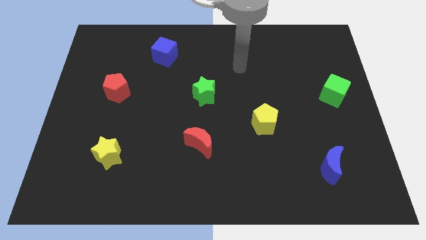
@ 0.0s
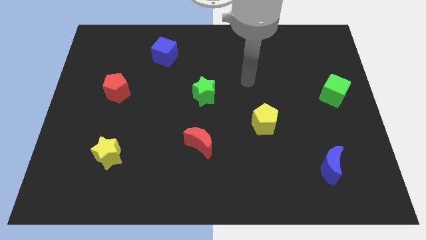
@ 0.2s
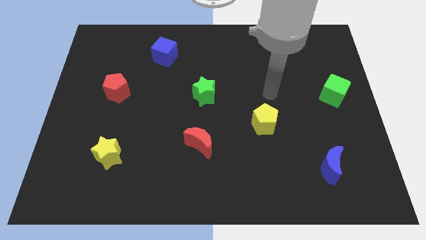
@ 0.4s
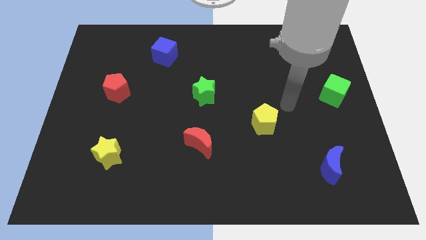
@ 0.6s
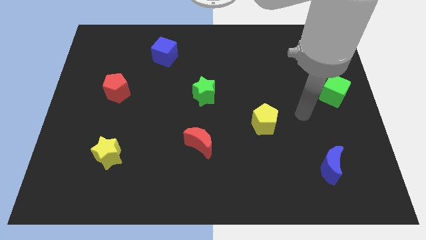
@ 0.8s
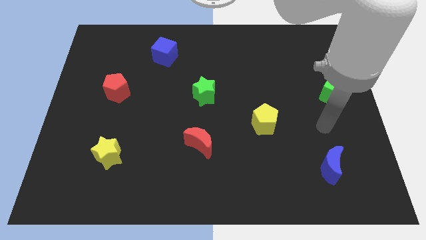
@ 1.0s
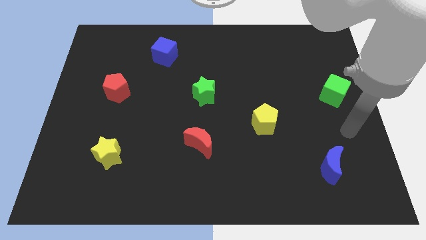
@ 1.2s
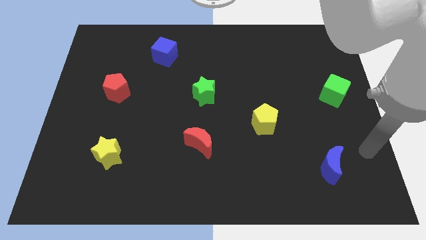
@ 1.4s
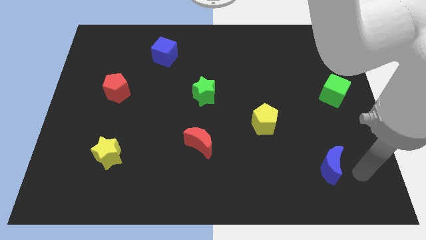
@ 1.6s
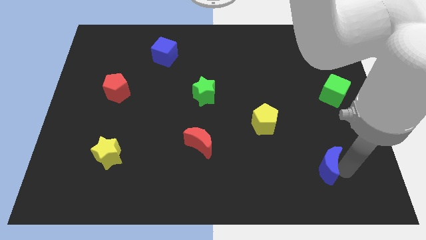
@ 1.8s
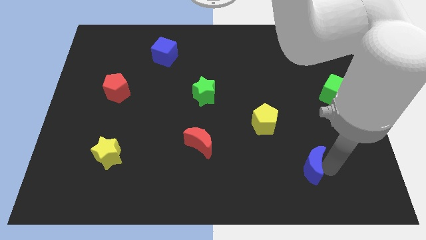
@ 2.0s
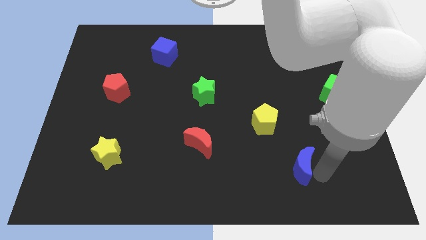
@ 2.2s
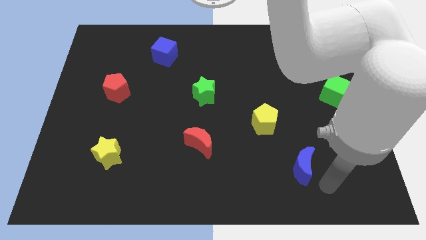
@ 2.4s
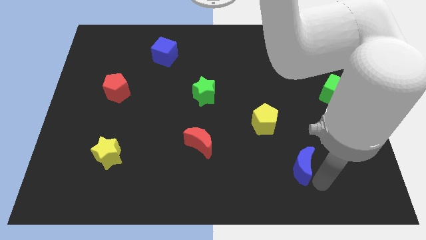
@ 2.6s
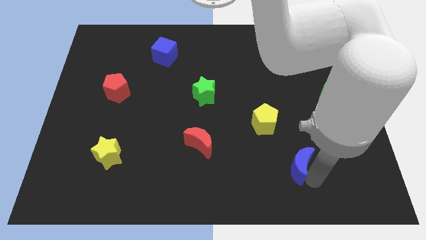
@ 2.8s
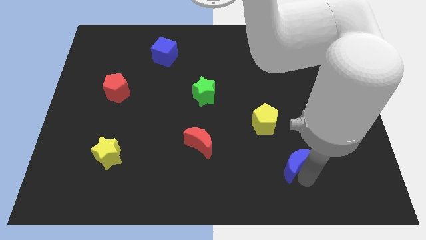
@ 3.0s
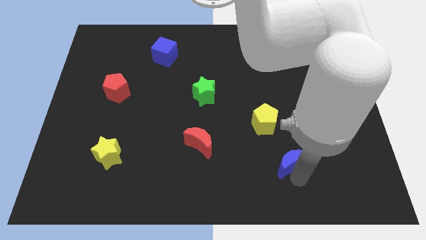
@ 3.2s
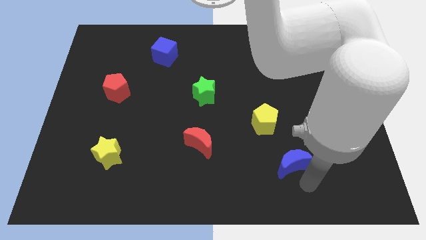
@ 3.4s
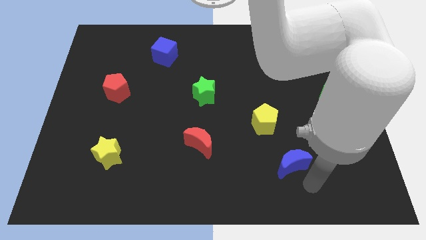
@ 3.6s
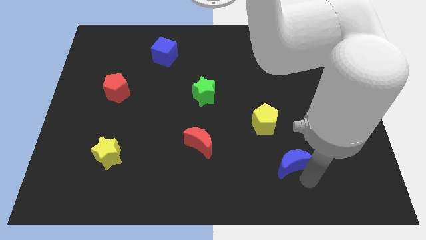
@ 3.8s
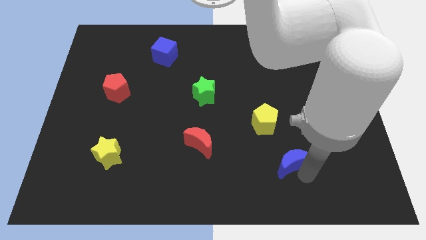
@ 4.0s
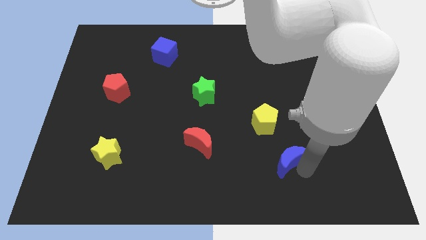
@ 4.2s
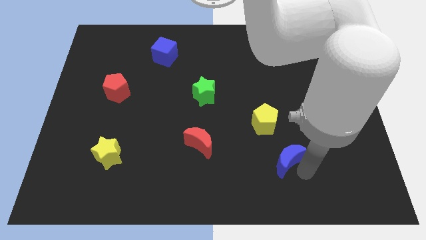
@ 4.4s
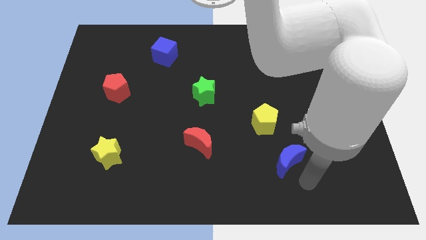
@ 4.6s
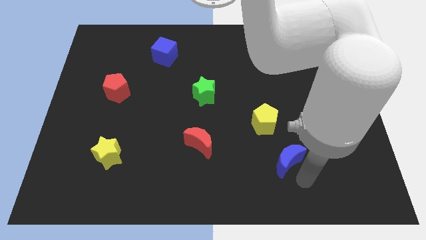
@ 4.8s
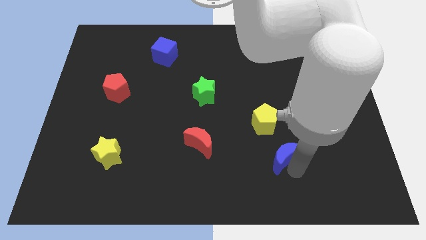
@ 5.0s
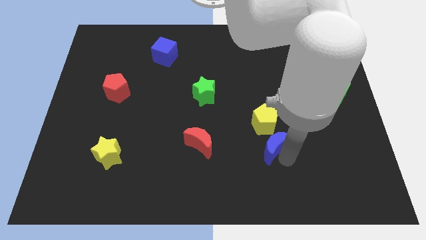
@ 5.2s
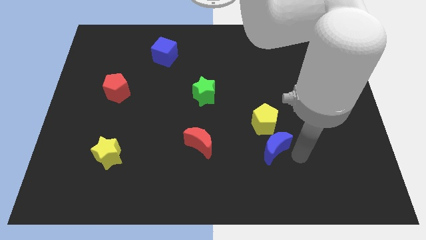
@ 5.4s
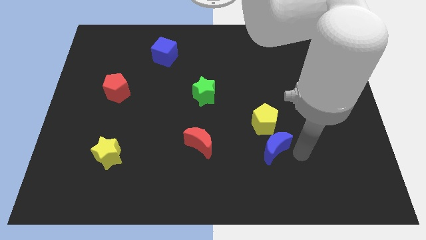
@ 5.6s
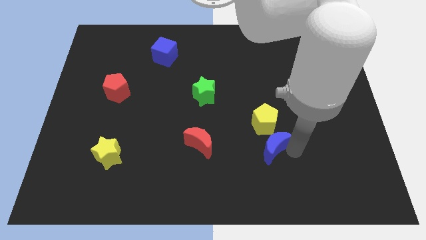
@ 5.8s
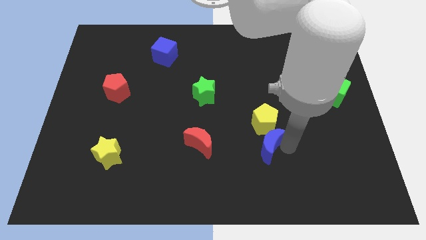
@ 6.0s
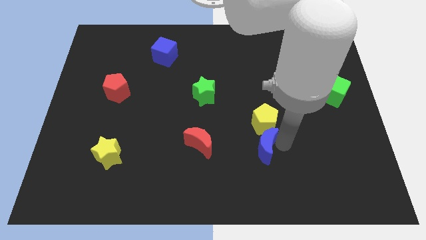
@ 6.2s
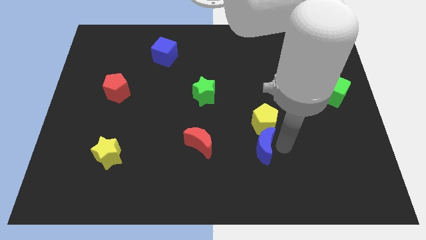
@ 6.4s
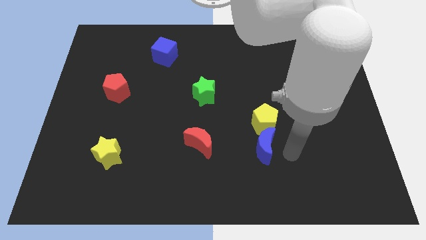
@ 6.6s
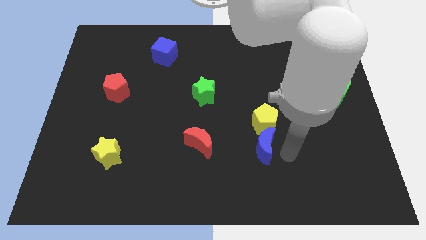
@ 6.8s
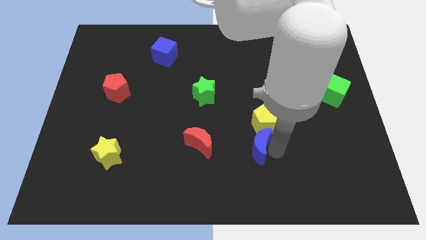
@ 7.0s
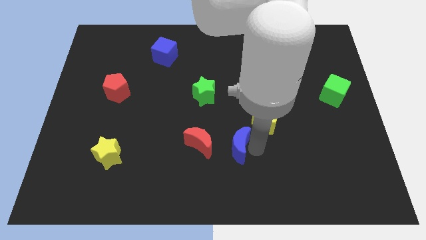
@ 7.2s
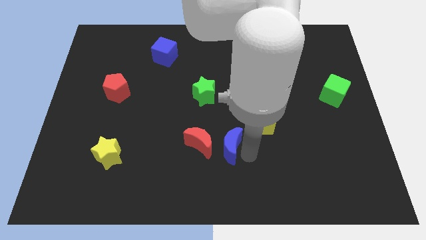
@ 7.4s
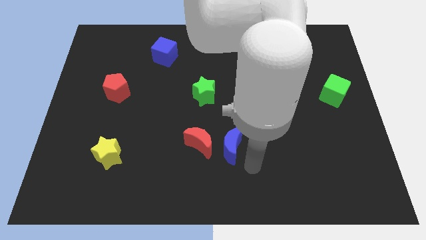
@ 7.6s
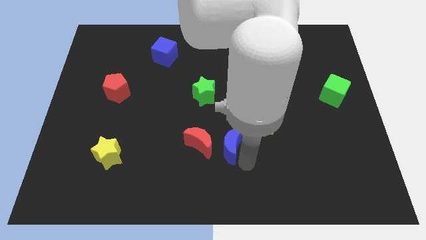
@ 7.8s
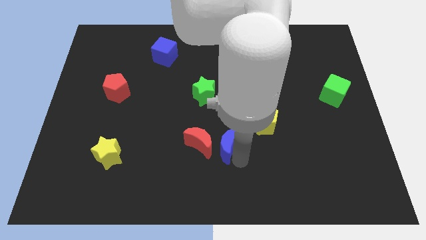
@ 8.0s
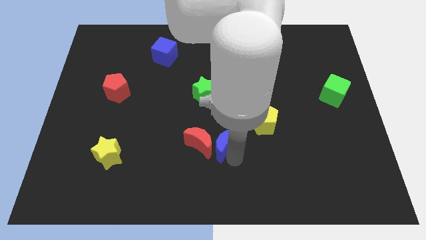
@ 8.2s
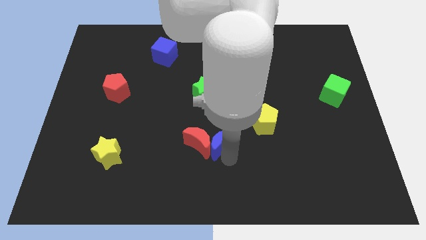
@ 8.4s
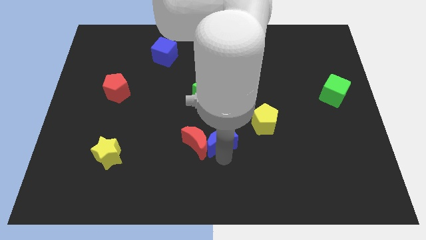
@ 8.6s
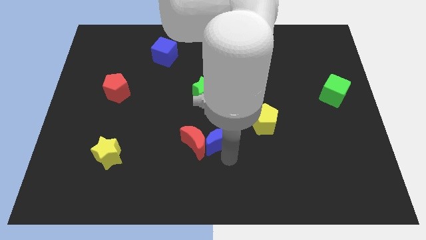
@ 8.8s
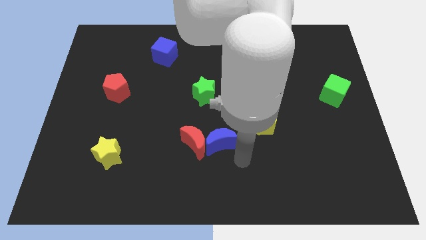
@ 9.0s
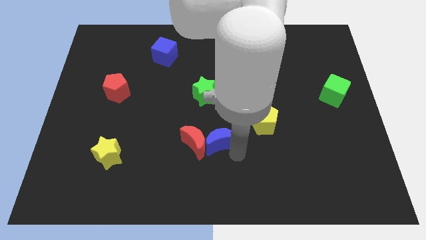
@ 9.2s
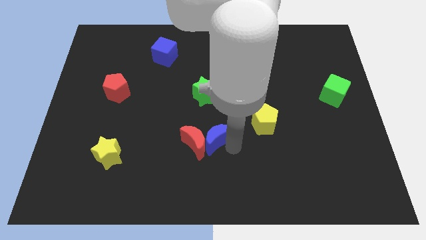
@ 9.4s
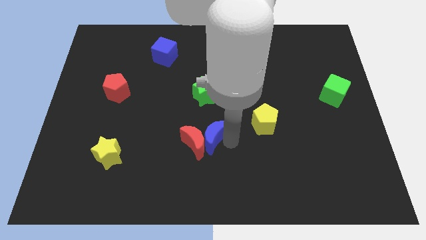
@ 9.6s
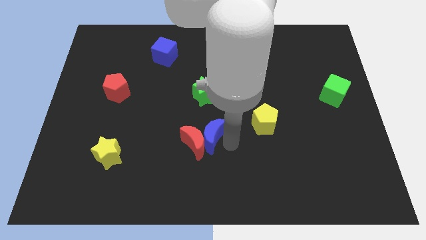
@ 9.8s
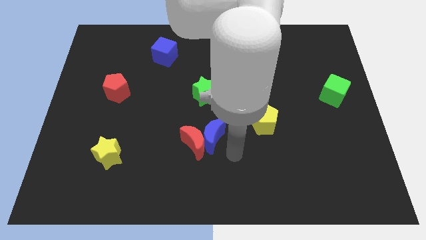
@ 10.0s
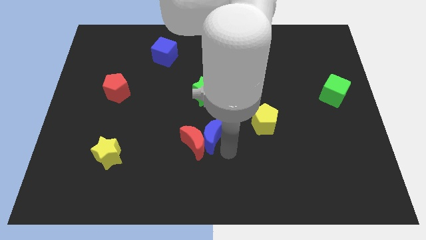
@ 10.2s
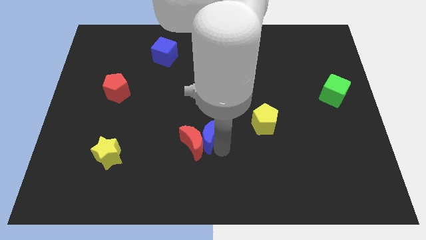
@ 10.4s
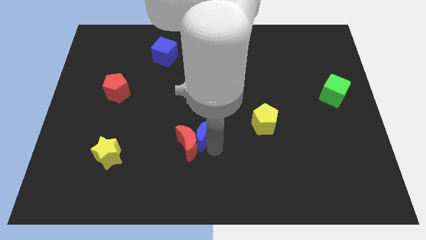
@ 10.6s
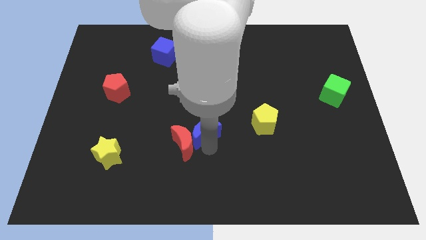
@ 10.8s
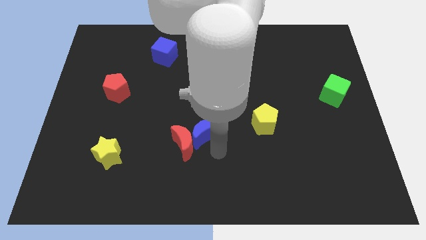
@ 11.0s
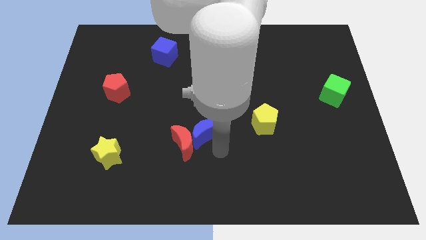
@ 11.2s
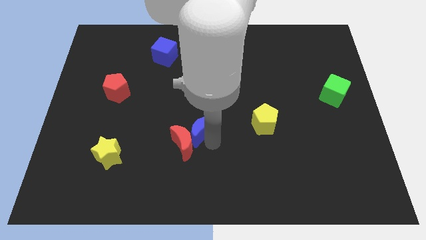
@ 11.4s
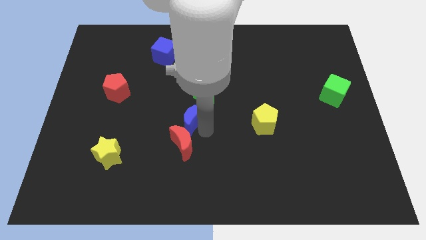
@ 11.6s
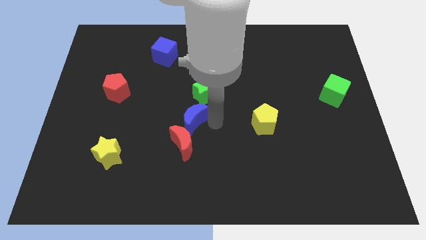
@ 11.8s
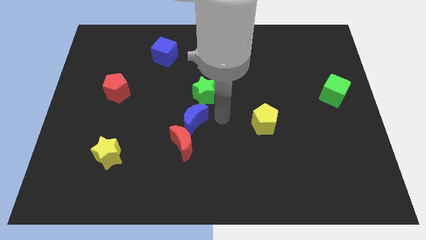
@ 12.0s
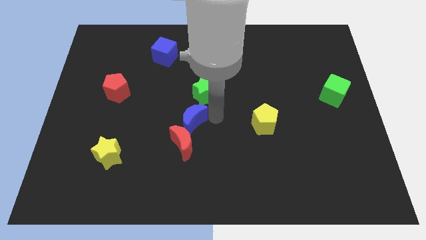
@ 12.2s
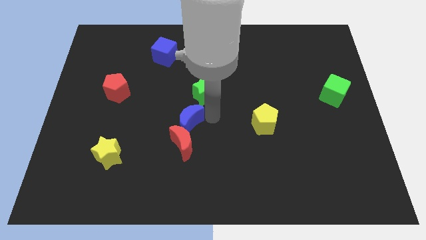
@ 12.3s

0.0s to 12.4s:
slide the blue moon to the top left side of the red moon
